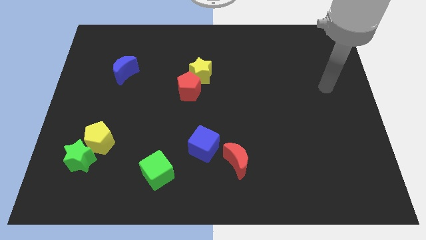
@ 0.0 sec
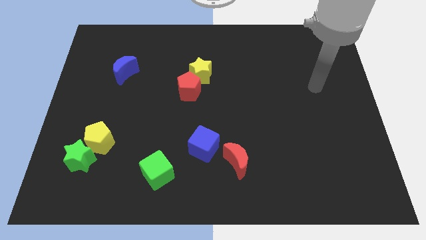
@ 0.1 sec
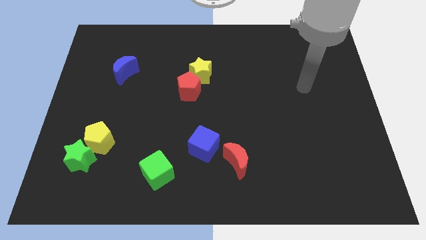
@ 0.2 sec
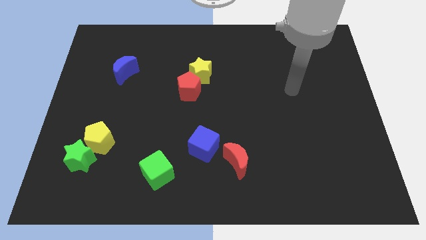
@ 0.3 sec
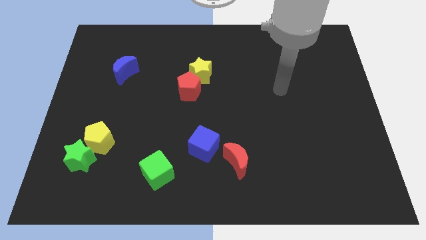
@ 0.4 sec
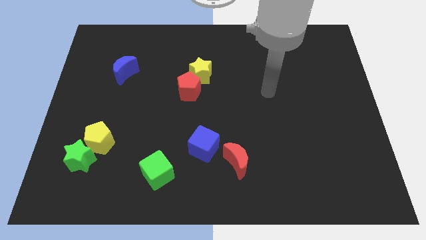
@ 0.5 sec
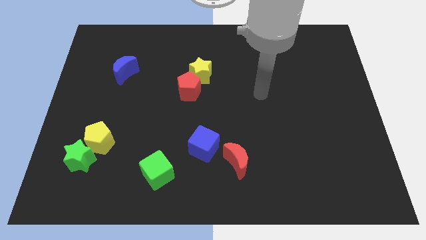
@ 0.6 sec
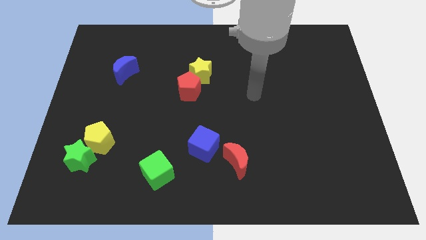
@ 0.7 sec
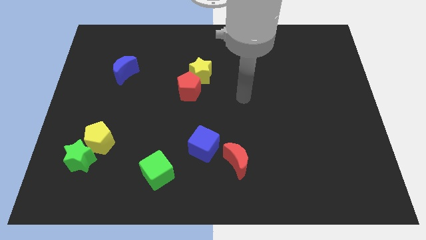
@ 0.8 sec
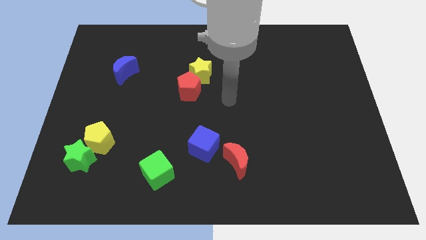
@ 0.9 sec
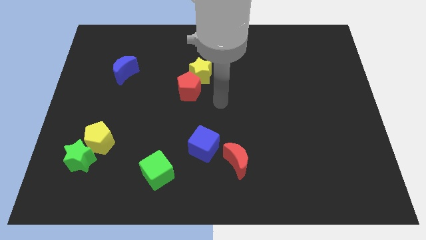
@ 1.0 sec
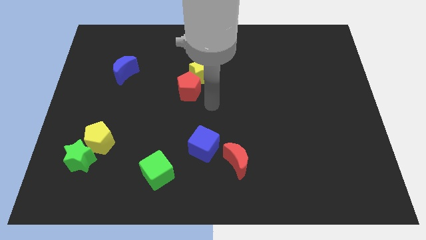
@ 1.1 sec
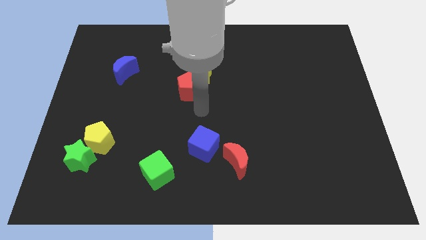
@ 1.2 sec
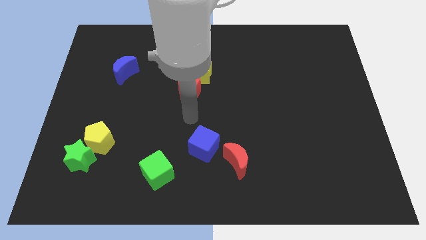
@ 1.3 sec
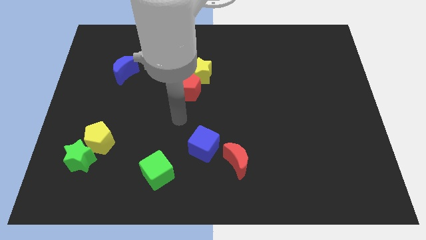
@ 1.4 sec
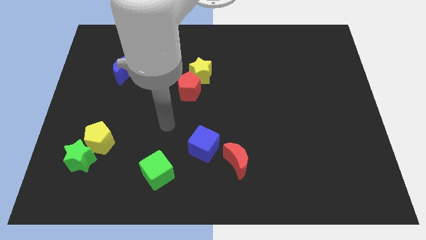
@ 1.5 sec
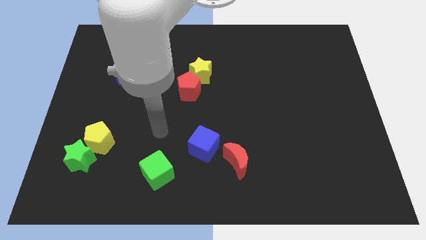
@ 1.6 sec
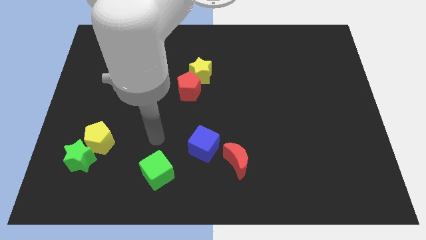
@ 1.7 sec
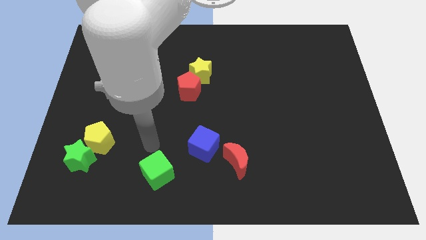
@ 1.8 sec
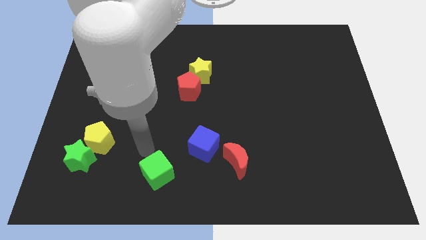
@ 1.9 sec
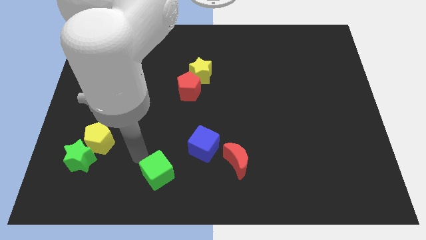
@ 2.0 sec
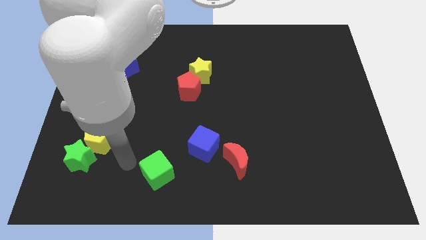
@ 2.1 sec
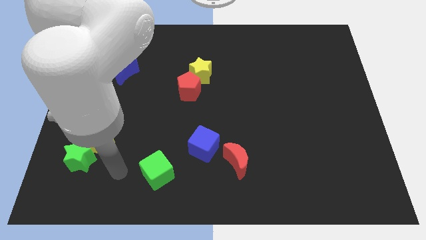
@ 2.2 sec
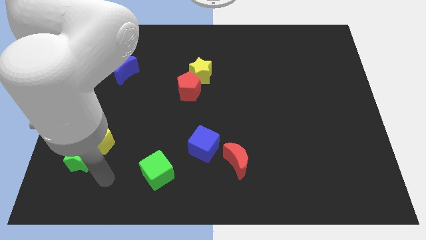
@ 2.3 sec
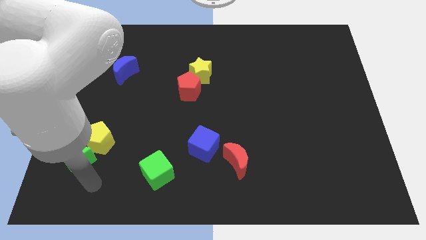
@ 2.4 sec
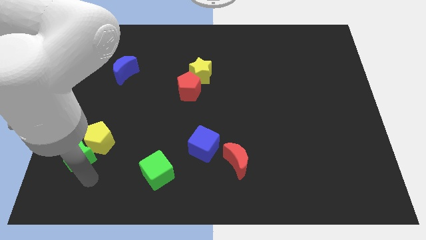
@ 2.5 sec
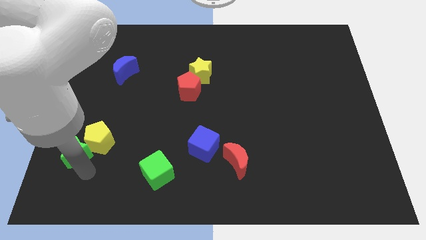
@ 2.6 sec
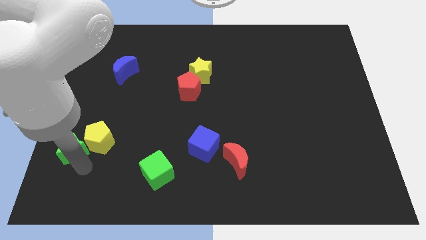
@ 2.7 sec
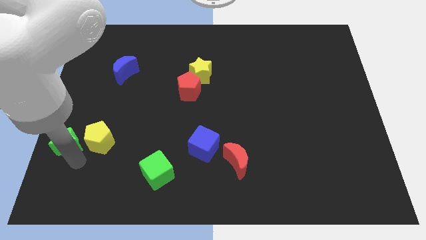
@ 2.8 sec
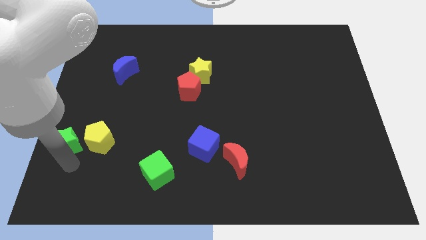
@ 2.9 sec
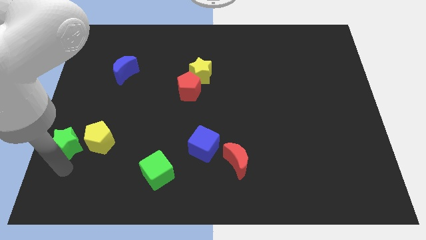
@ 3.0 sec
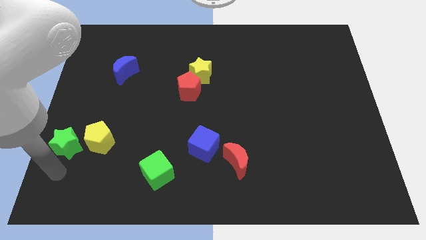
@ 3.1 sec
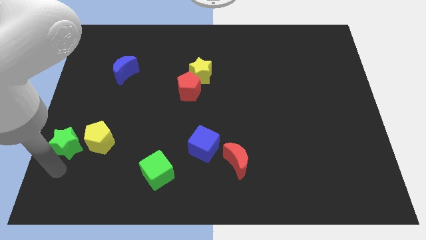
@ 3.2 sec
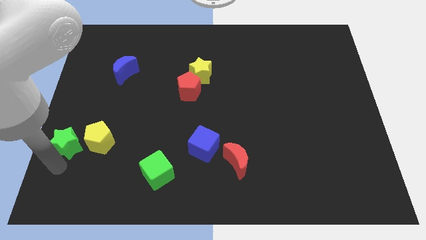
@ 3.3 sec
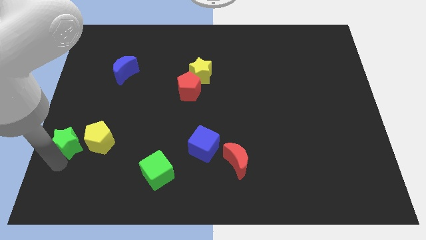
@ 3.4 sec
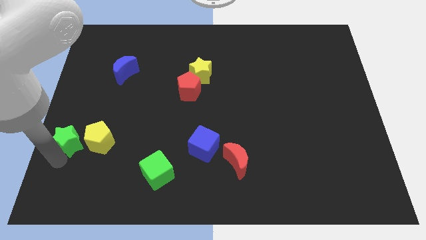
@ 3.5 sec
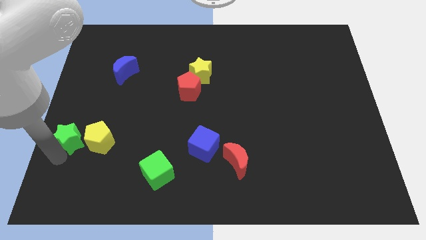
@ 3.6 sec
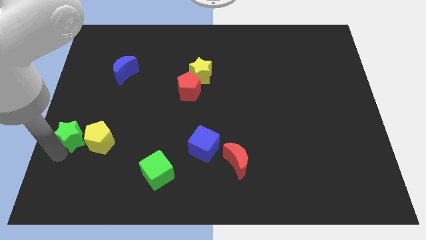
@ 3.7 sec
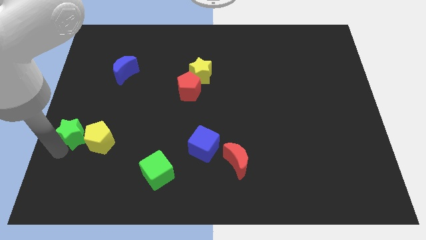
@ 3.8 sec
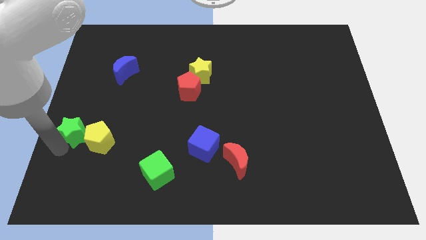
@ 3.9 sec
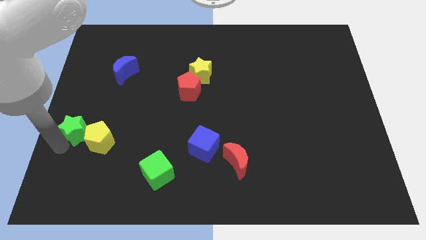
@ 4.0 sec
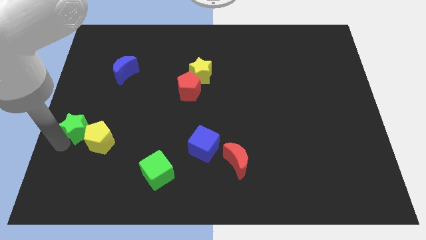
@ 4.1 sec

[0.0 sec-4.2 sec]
move the green star somewhat up

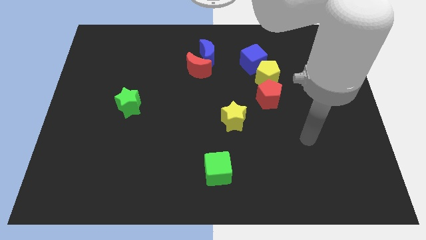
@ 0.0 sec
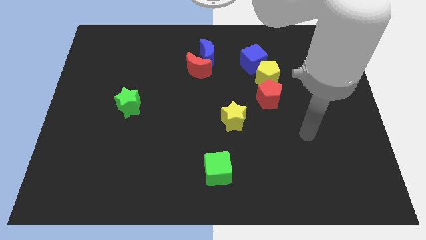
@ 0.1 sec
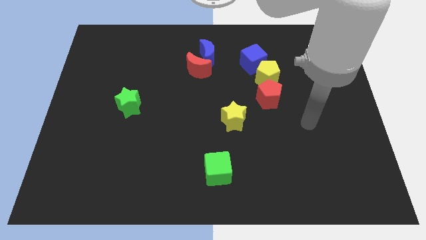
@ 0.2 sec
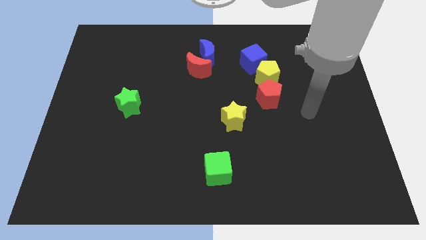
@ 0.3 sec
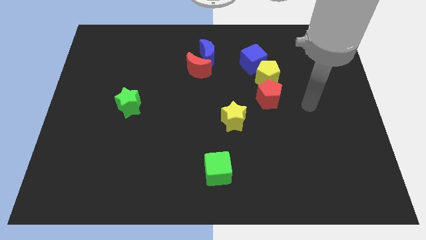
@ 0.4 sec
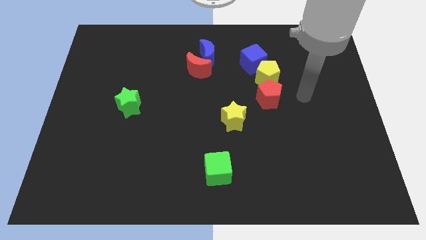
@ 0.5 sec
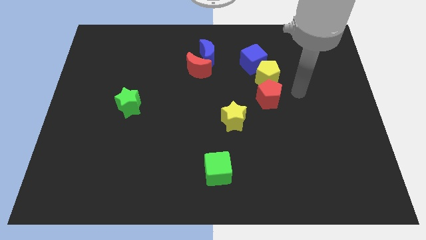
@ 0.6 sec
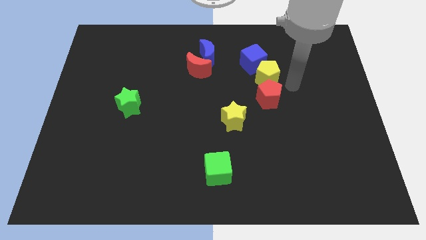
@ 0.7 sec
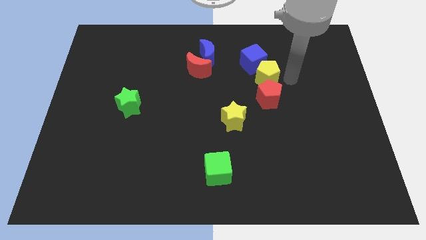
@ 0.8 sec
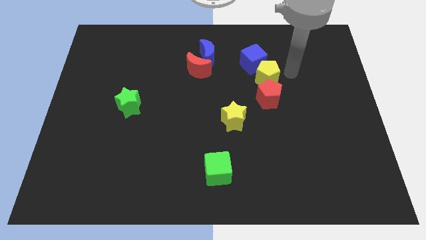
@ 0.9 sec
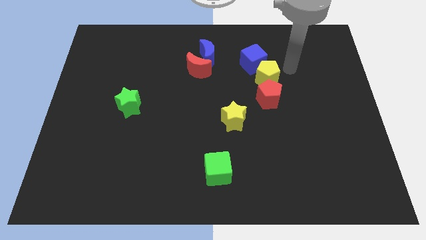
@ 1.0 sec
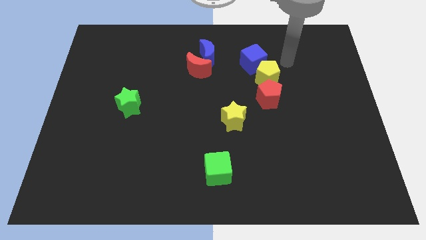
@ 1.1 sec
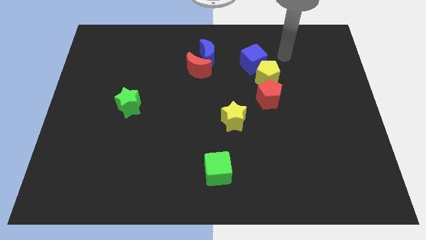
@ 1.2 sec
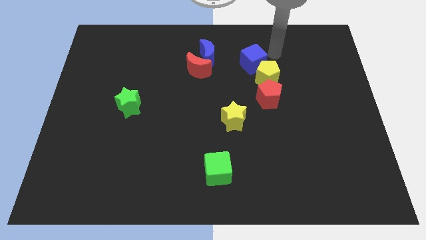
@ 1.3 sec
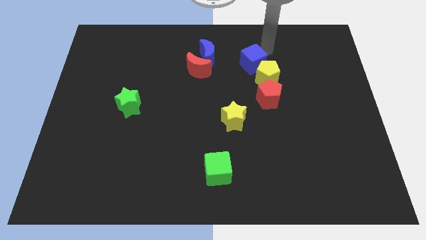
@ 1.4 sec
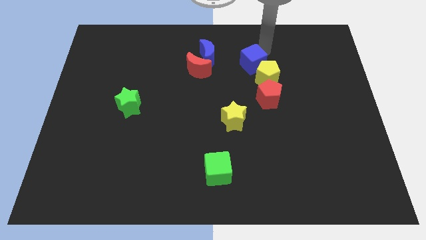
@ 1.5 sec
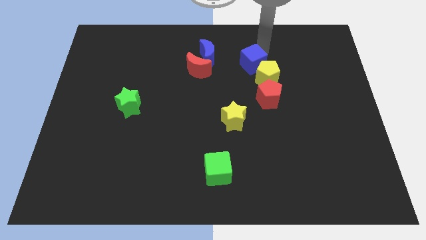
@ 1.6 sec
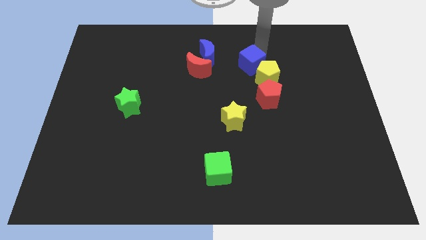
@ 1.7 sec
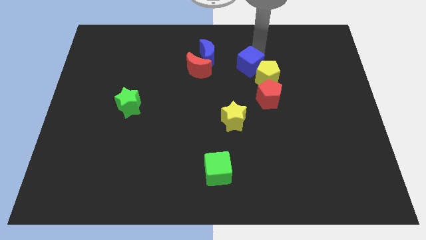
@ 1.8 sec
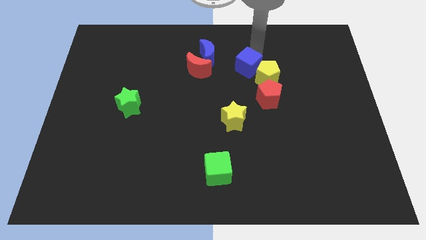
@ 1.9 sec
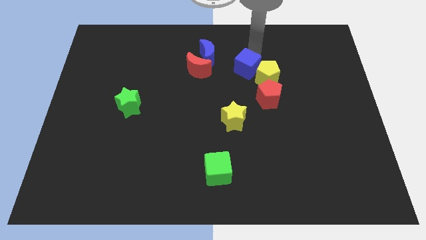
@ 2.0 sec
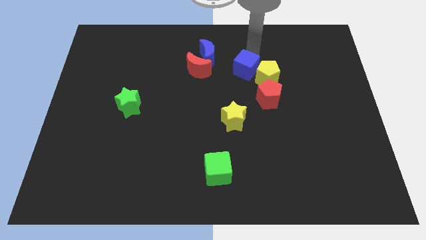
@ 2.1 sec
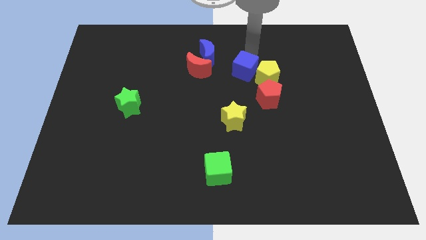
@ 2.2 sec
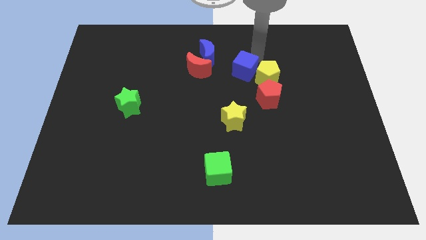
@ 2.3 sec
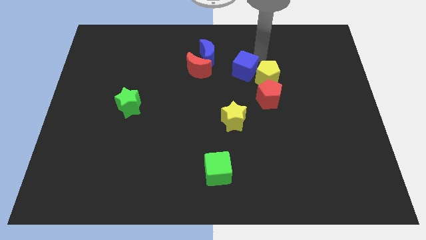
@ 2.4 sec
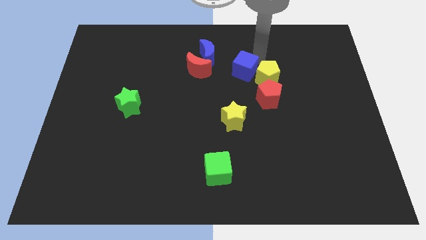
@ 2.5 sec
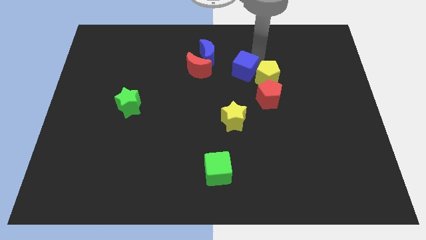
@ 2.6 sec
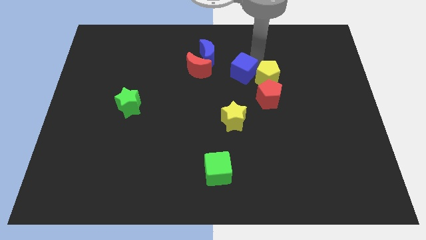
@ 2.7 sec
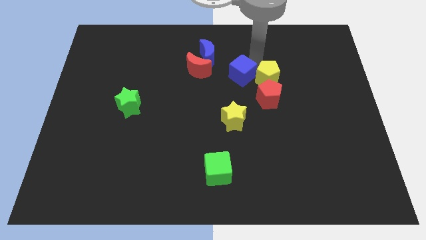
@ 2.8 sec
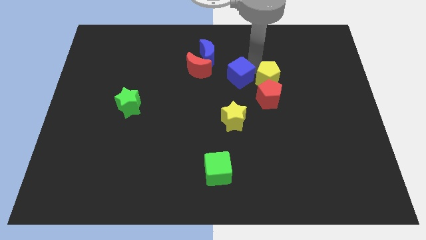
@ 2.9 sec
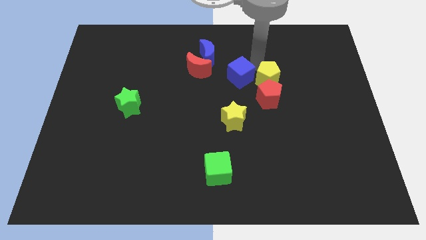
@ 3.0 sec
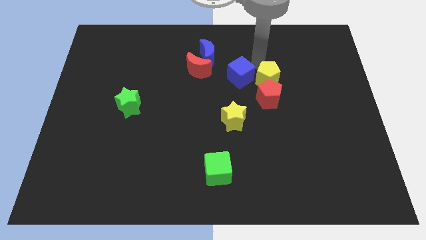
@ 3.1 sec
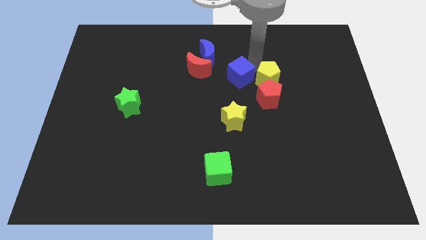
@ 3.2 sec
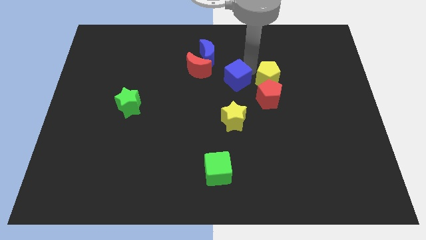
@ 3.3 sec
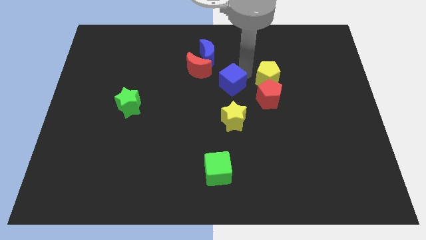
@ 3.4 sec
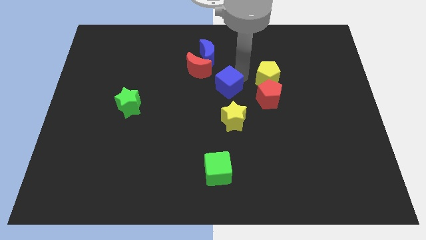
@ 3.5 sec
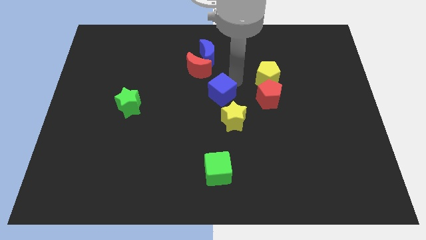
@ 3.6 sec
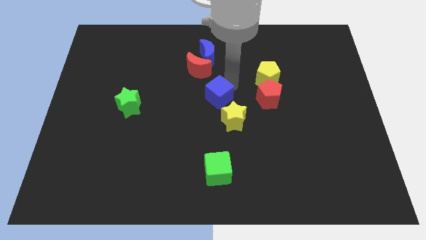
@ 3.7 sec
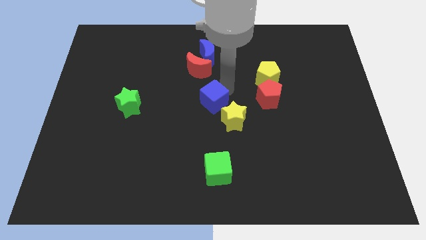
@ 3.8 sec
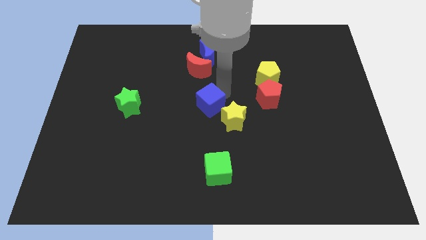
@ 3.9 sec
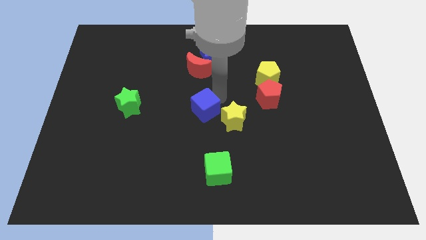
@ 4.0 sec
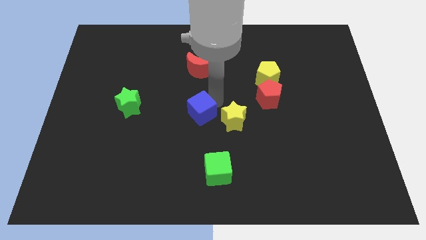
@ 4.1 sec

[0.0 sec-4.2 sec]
slide the blue cube downwards and to the left diagonally
